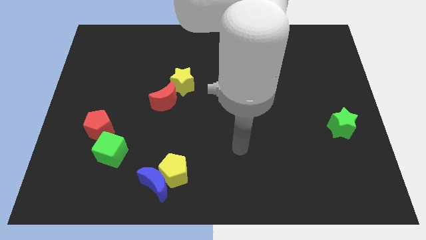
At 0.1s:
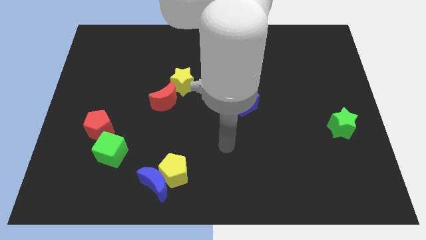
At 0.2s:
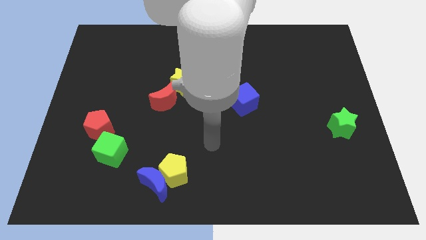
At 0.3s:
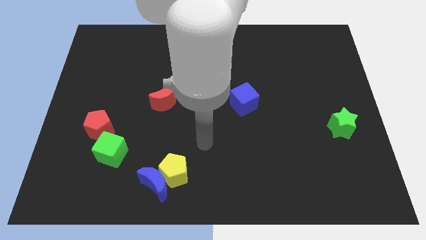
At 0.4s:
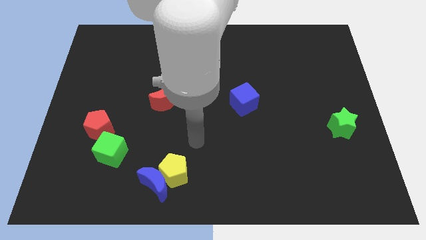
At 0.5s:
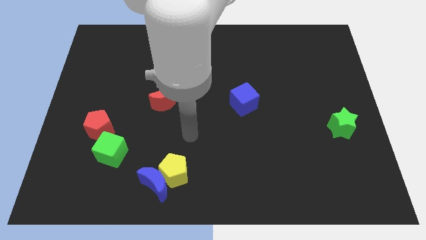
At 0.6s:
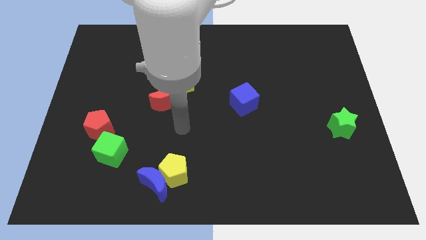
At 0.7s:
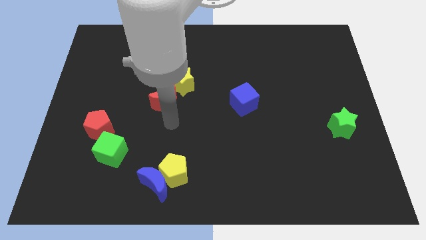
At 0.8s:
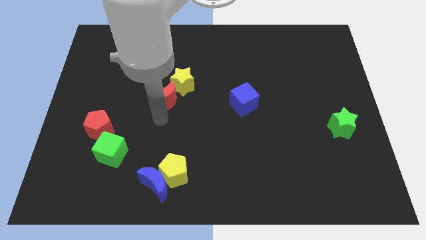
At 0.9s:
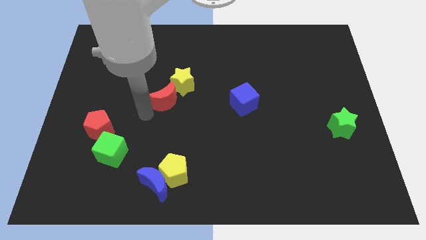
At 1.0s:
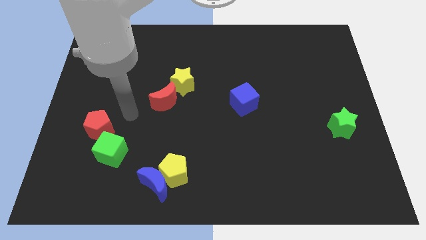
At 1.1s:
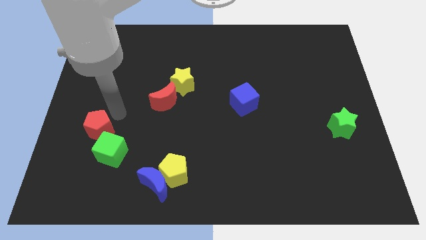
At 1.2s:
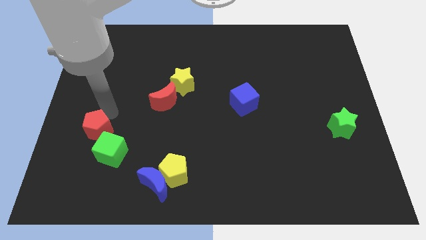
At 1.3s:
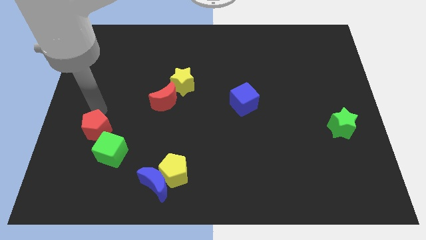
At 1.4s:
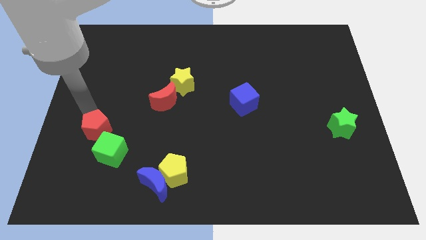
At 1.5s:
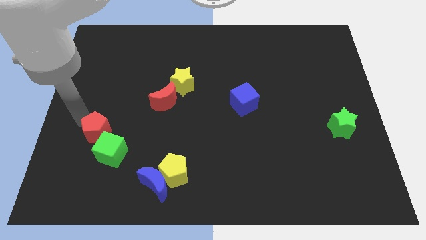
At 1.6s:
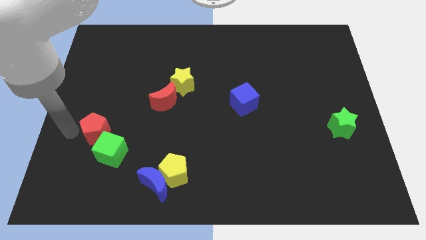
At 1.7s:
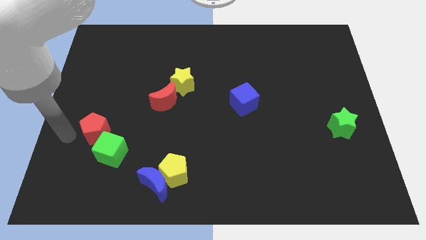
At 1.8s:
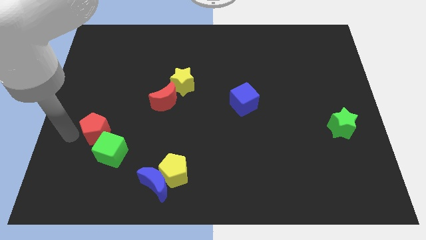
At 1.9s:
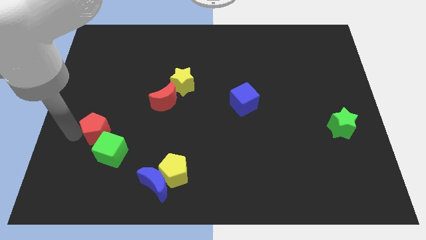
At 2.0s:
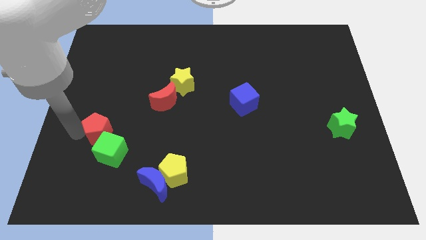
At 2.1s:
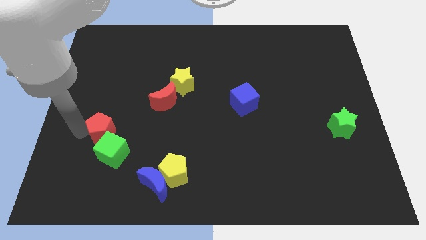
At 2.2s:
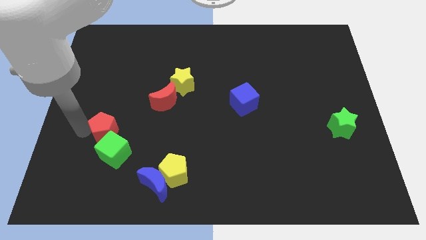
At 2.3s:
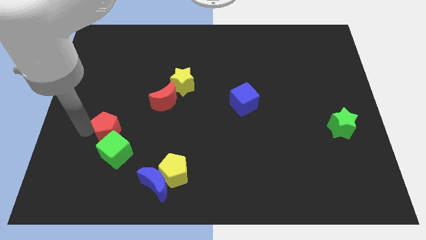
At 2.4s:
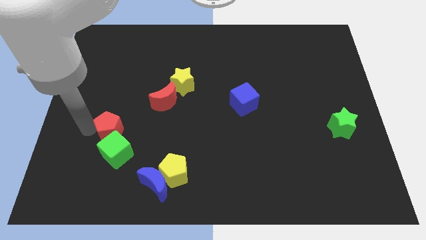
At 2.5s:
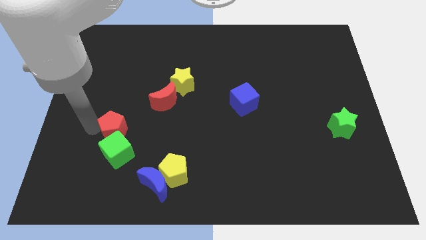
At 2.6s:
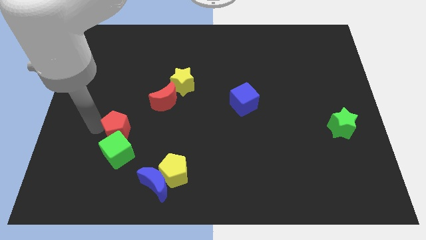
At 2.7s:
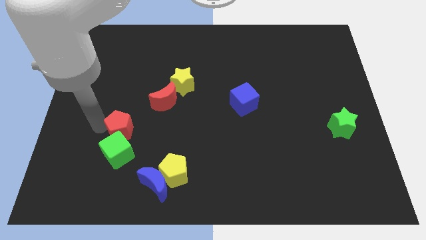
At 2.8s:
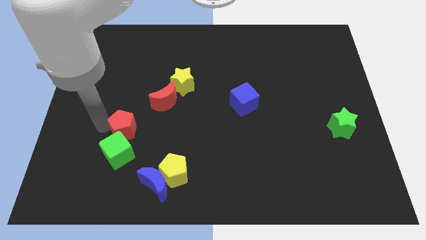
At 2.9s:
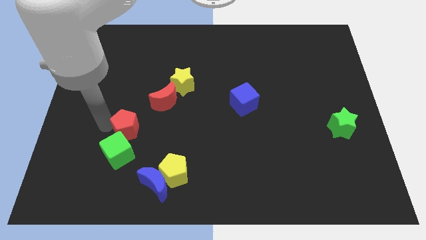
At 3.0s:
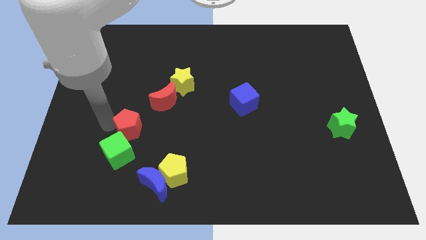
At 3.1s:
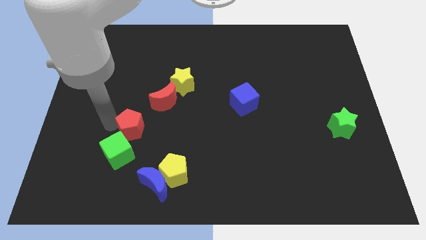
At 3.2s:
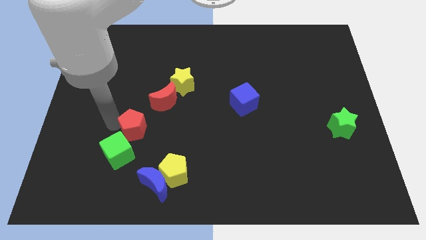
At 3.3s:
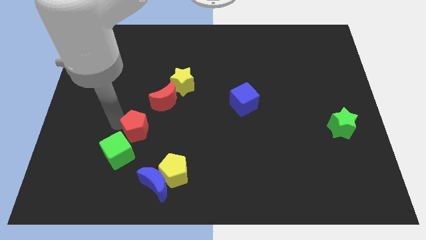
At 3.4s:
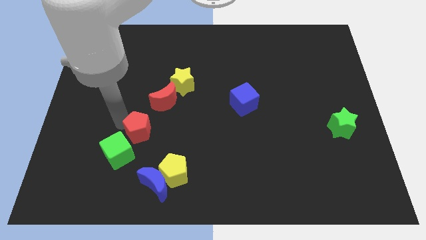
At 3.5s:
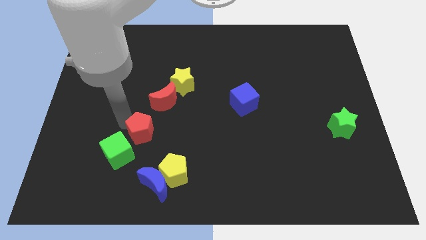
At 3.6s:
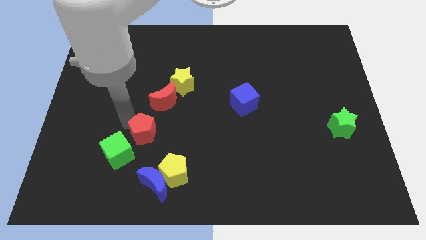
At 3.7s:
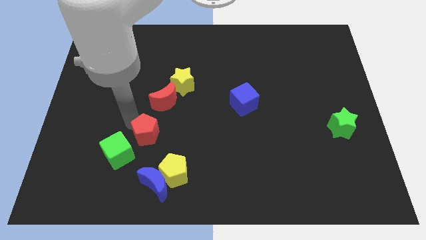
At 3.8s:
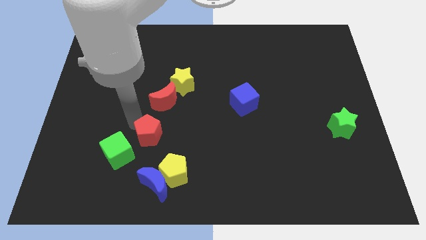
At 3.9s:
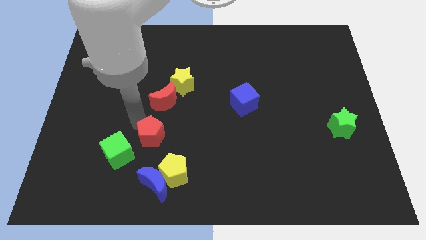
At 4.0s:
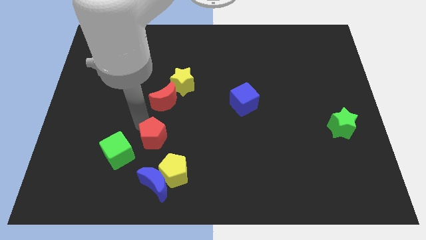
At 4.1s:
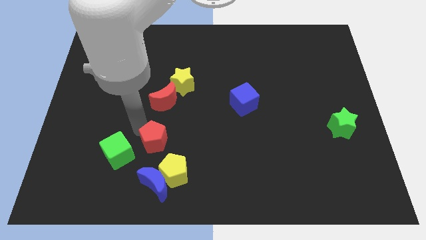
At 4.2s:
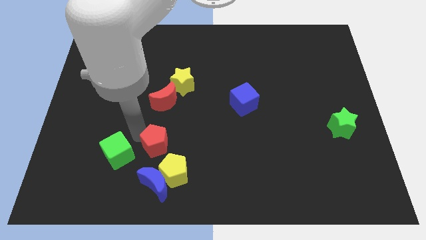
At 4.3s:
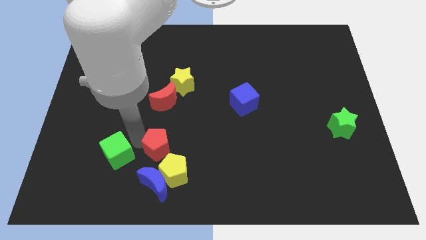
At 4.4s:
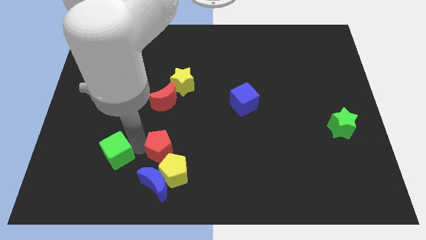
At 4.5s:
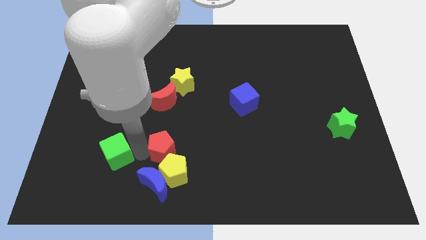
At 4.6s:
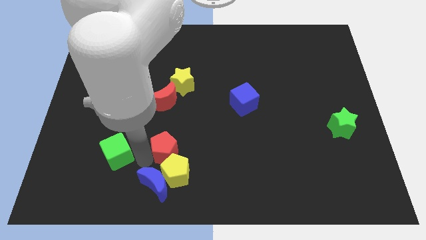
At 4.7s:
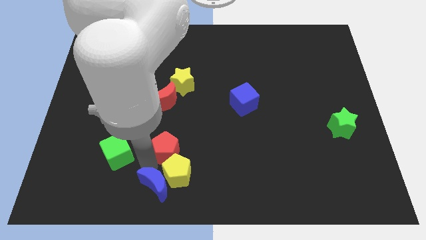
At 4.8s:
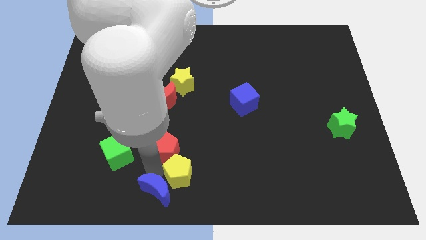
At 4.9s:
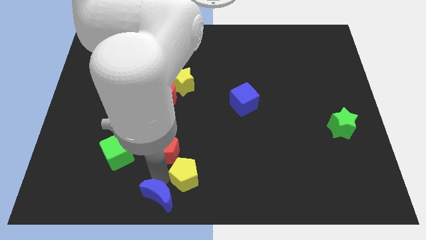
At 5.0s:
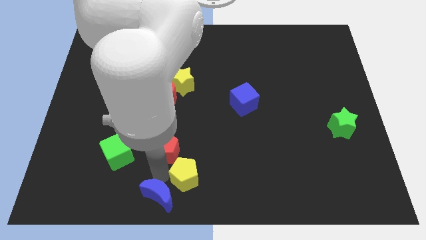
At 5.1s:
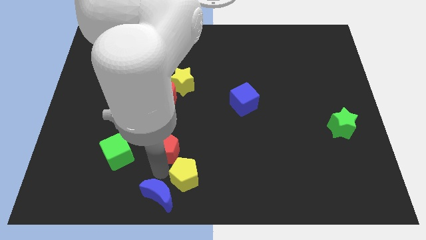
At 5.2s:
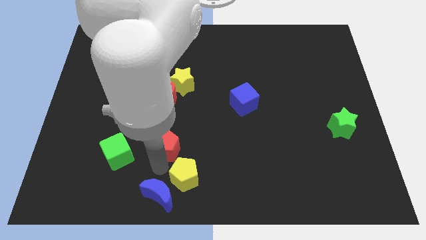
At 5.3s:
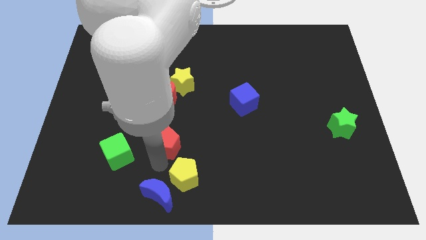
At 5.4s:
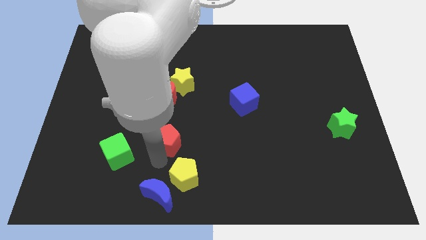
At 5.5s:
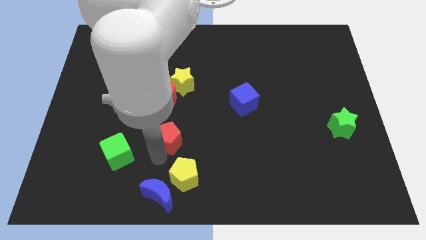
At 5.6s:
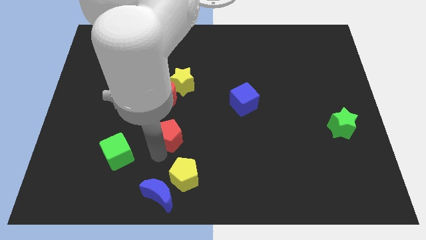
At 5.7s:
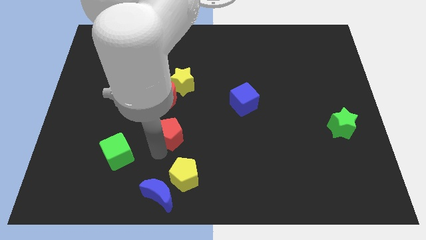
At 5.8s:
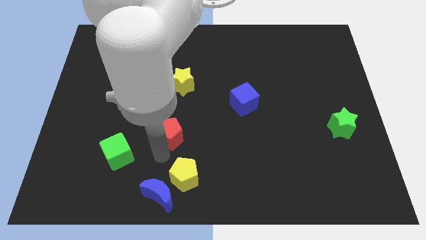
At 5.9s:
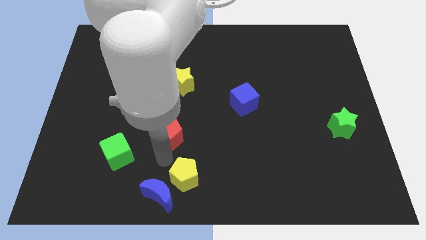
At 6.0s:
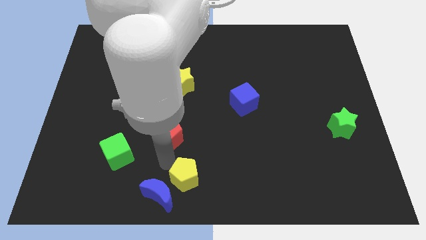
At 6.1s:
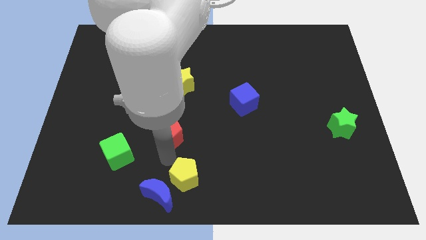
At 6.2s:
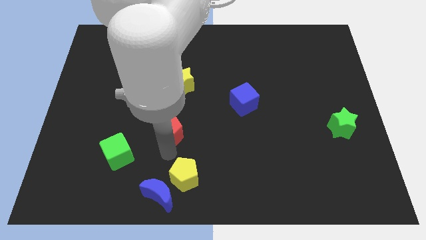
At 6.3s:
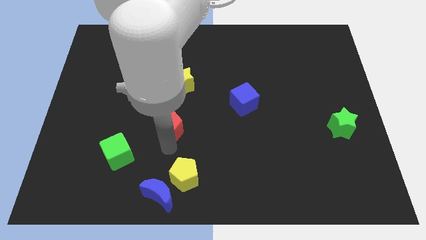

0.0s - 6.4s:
move the red pentagon to the bottom right side of the red moon

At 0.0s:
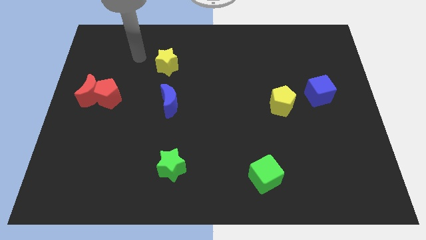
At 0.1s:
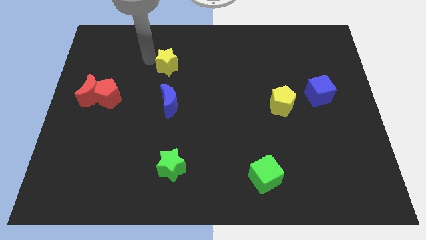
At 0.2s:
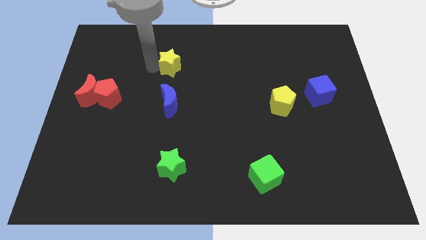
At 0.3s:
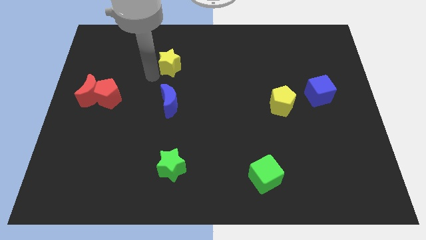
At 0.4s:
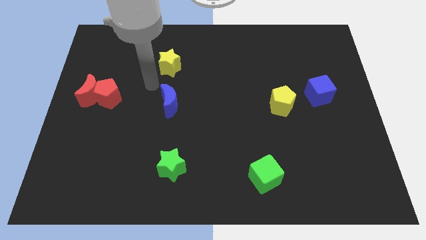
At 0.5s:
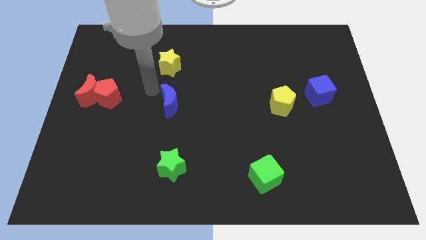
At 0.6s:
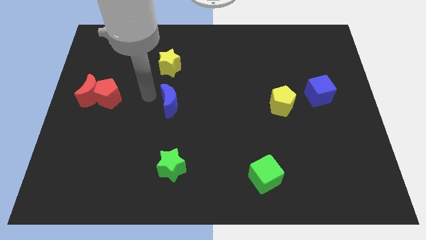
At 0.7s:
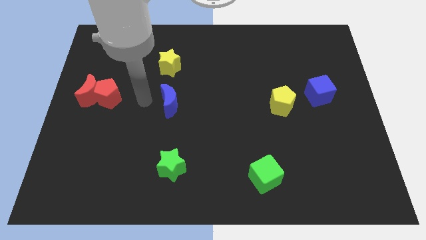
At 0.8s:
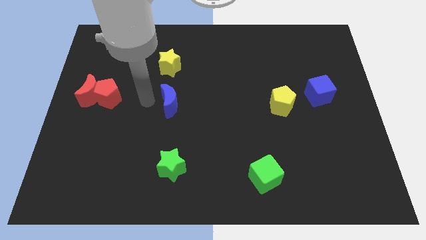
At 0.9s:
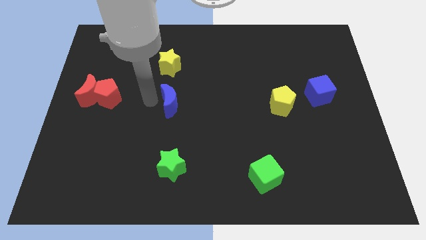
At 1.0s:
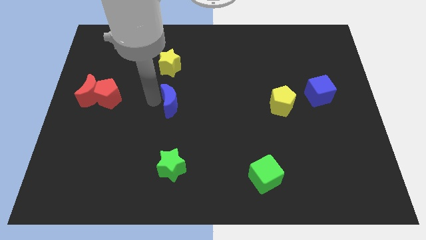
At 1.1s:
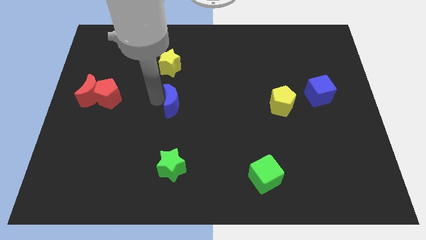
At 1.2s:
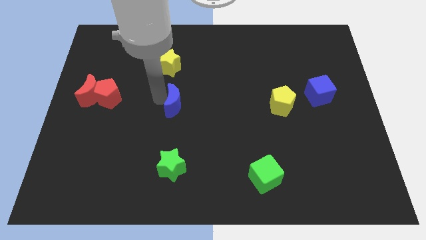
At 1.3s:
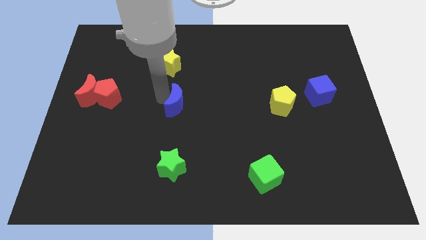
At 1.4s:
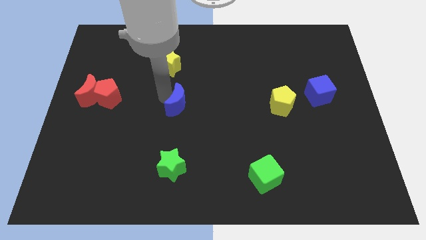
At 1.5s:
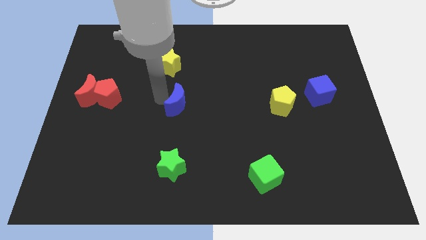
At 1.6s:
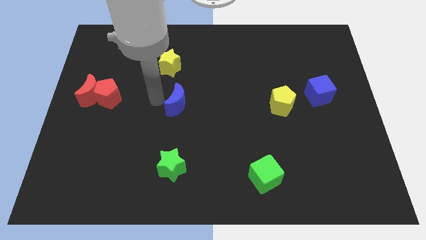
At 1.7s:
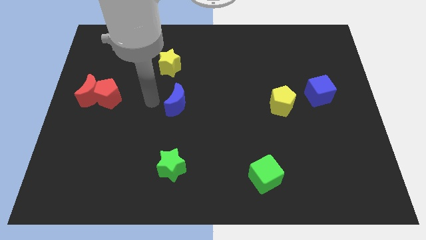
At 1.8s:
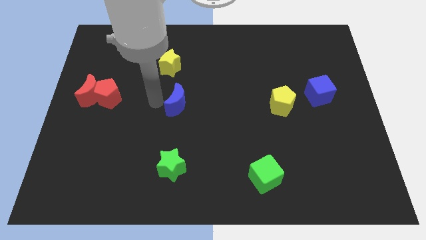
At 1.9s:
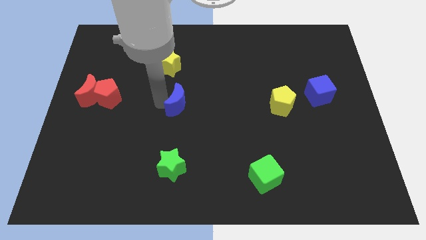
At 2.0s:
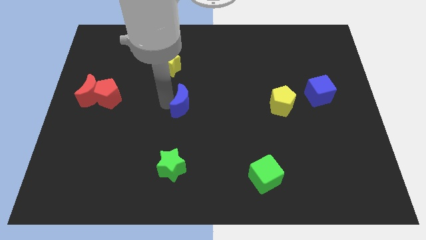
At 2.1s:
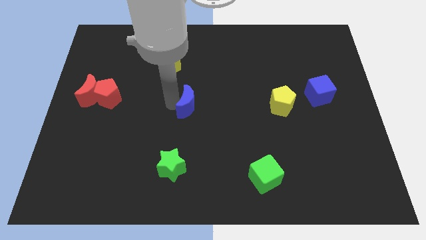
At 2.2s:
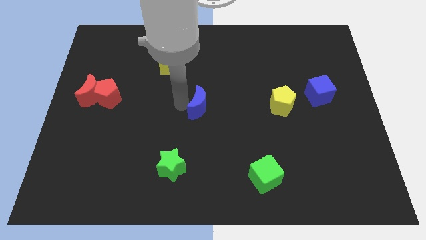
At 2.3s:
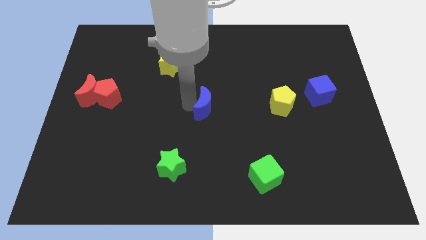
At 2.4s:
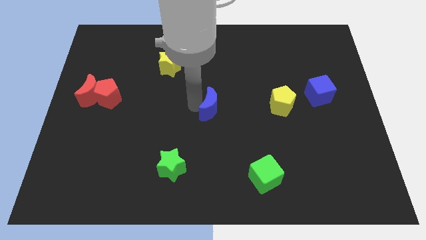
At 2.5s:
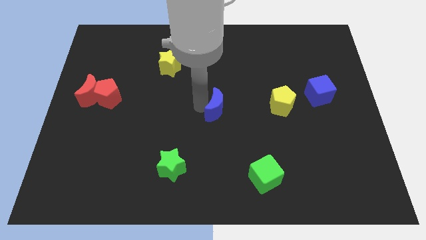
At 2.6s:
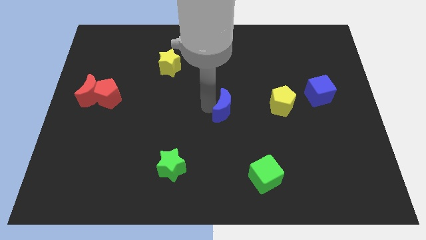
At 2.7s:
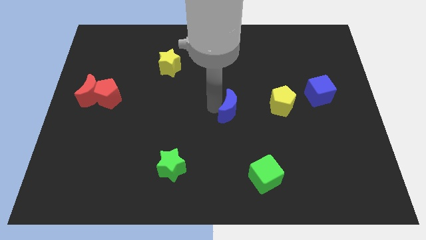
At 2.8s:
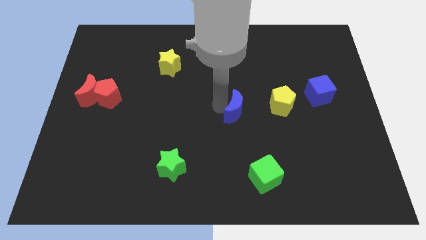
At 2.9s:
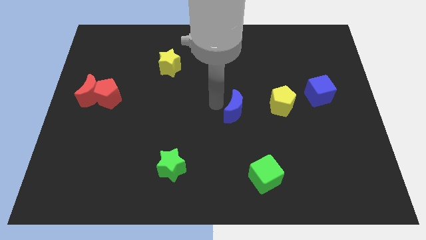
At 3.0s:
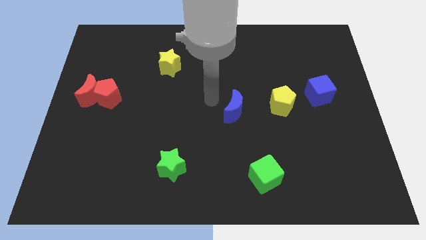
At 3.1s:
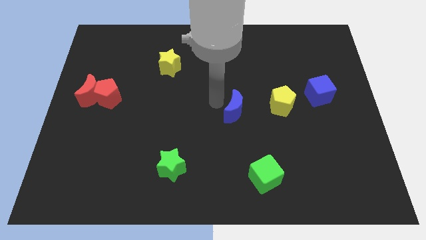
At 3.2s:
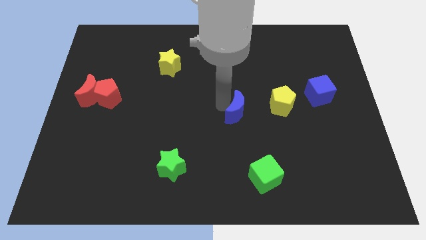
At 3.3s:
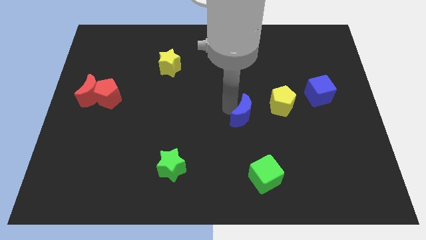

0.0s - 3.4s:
put the blue moon to the bottom left side of the yellow pentagon
